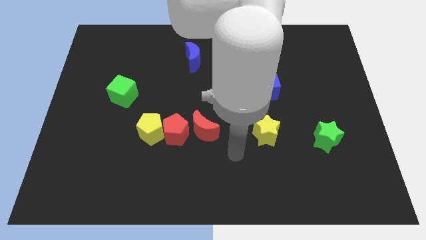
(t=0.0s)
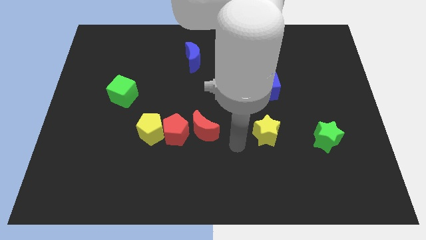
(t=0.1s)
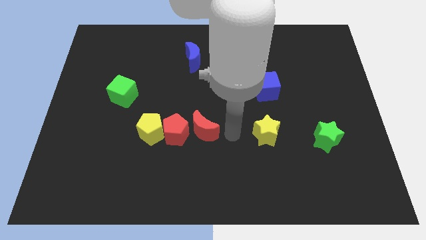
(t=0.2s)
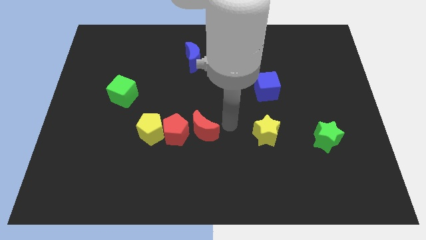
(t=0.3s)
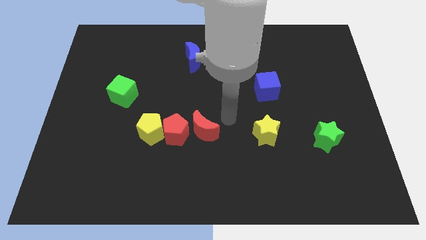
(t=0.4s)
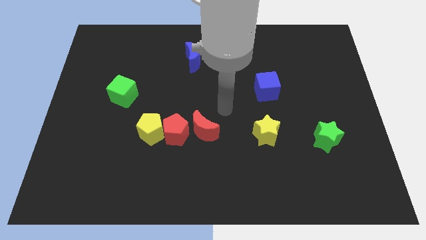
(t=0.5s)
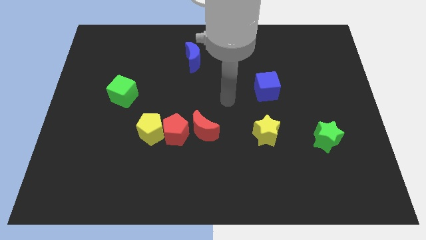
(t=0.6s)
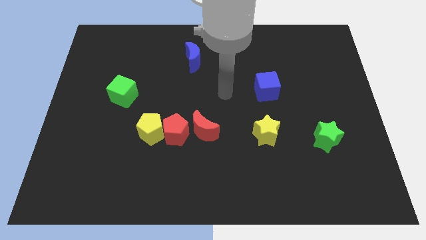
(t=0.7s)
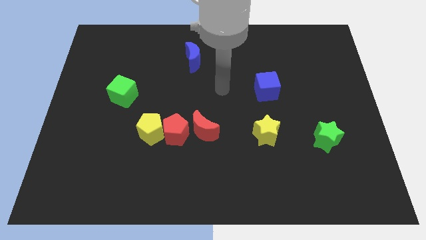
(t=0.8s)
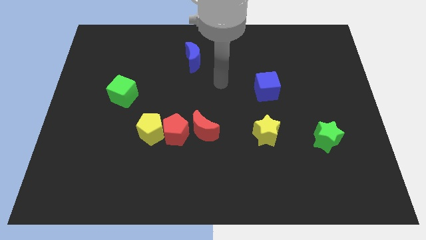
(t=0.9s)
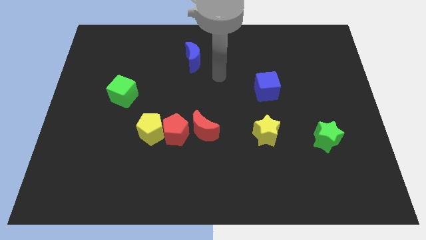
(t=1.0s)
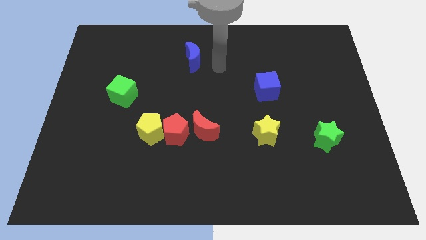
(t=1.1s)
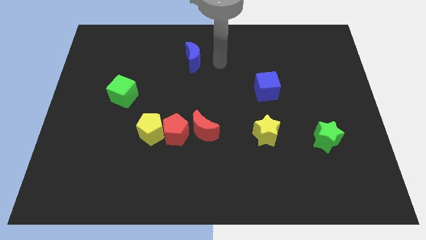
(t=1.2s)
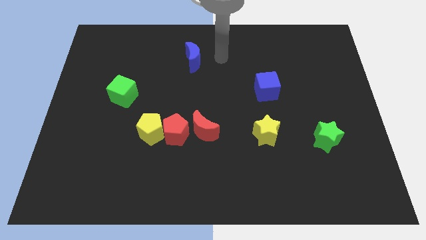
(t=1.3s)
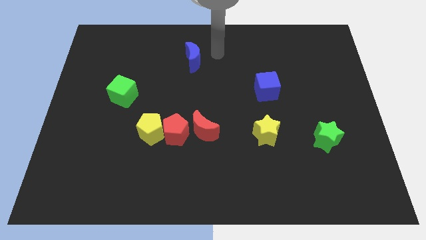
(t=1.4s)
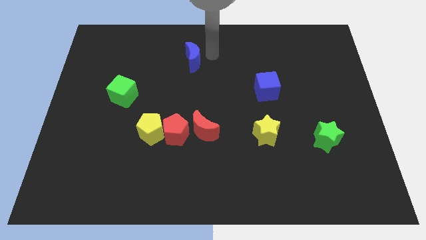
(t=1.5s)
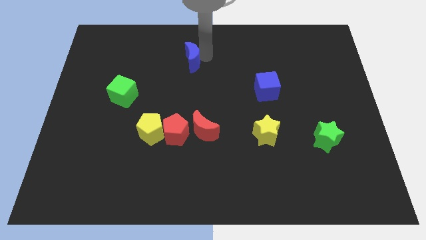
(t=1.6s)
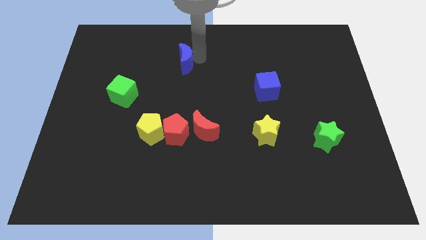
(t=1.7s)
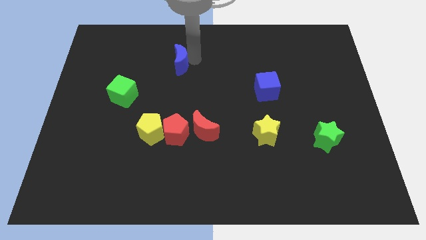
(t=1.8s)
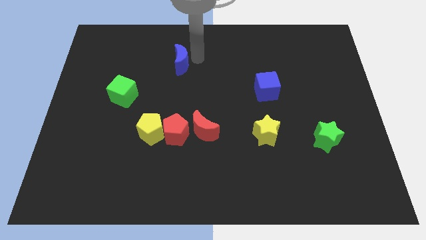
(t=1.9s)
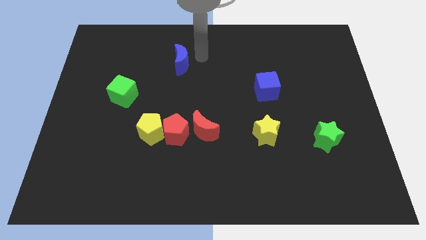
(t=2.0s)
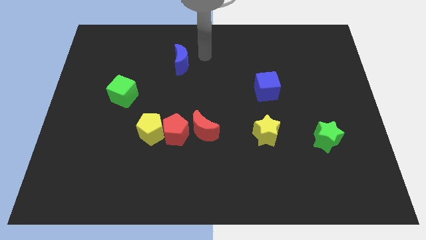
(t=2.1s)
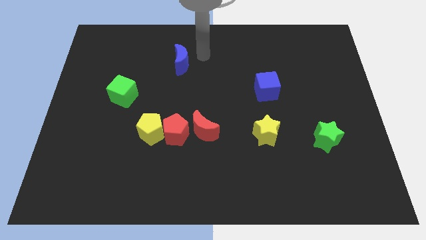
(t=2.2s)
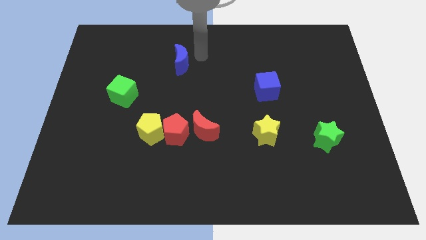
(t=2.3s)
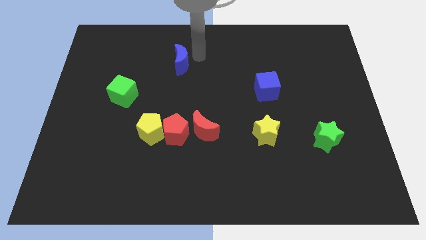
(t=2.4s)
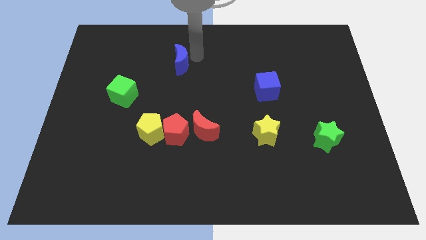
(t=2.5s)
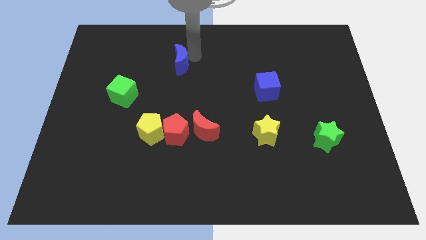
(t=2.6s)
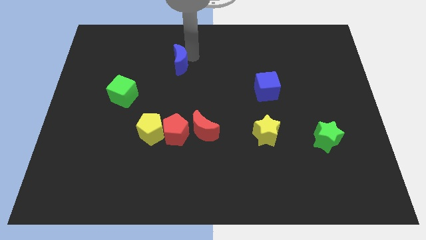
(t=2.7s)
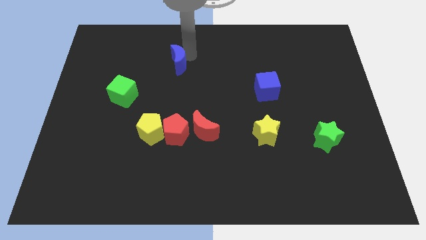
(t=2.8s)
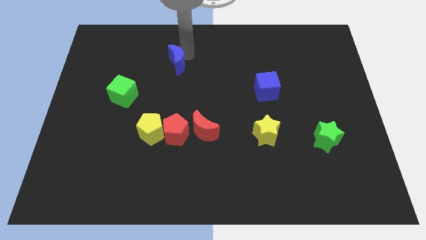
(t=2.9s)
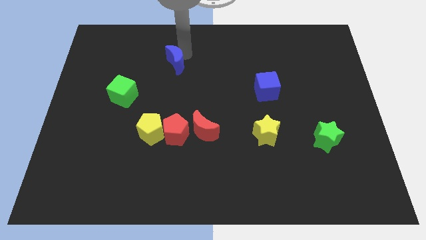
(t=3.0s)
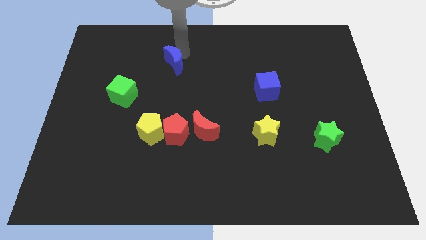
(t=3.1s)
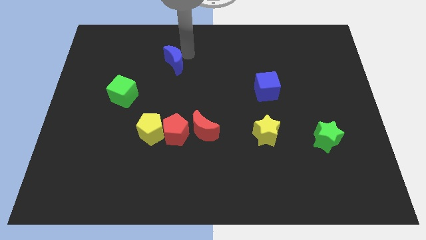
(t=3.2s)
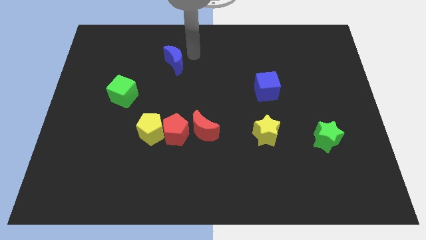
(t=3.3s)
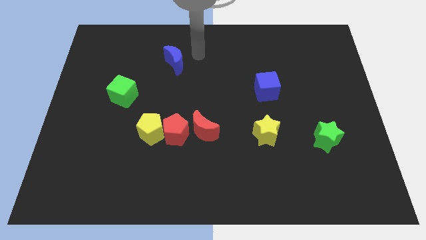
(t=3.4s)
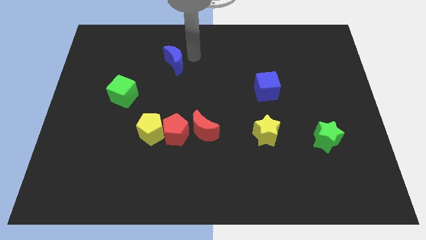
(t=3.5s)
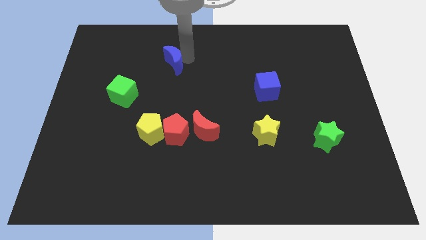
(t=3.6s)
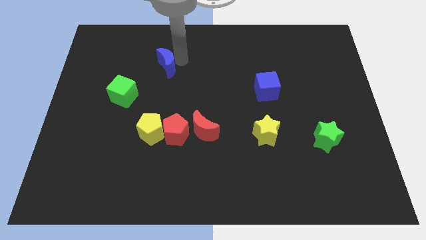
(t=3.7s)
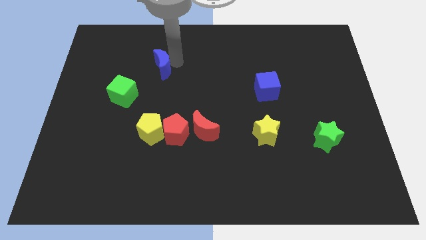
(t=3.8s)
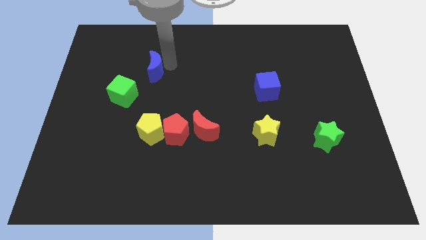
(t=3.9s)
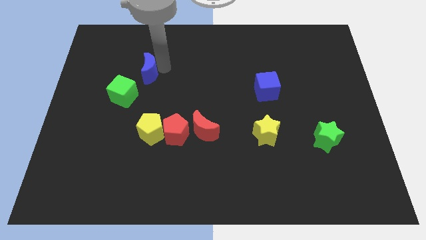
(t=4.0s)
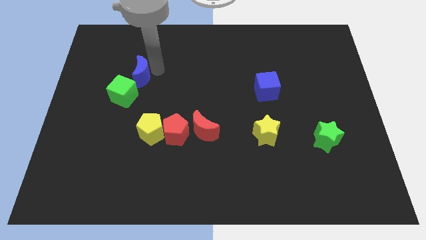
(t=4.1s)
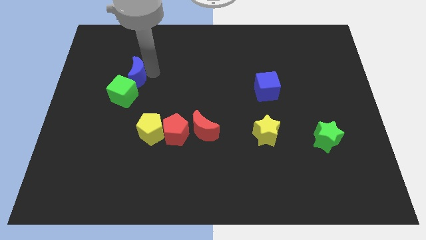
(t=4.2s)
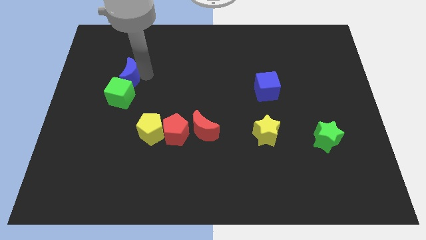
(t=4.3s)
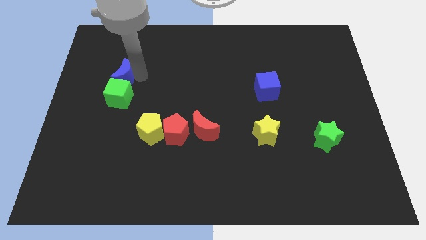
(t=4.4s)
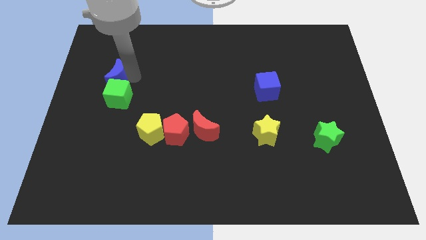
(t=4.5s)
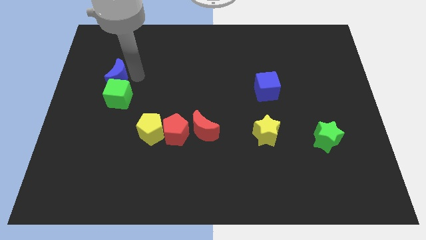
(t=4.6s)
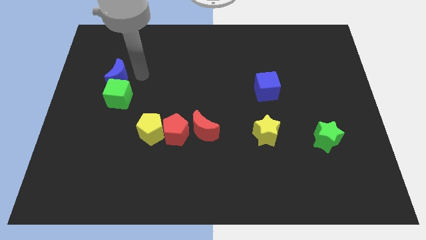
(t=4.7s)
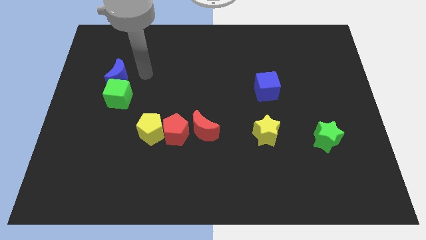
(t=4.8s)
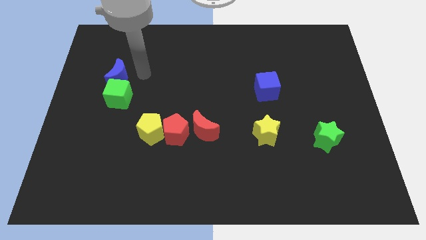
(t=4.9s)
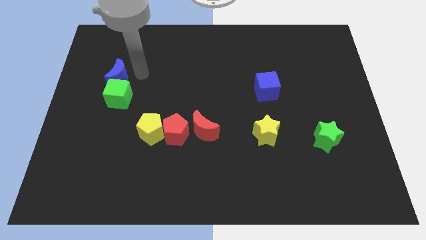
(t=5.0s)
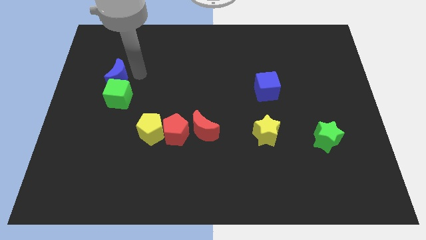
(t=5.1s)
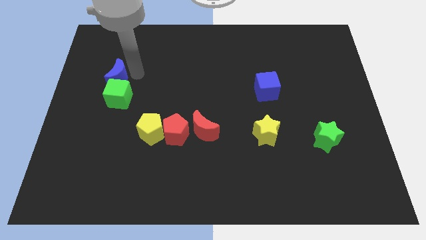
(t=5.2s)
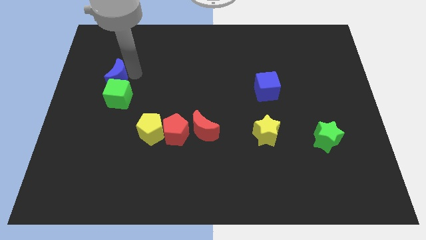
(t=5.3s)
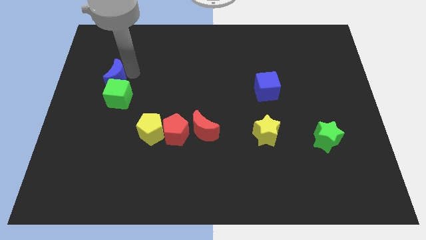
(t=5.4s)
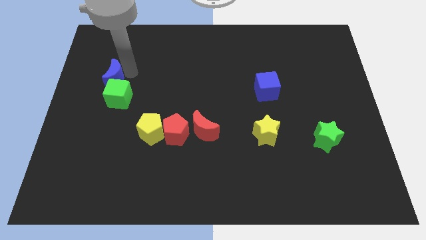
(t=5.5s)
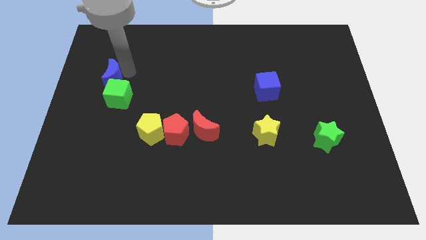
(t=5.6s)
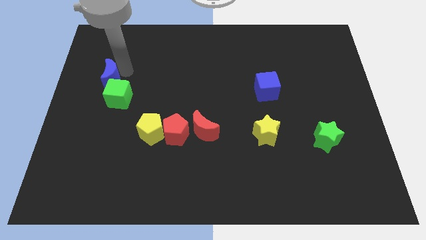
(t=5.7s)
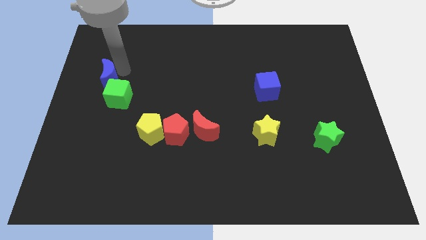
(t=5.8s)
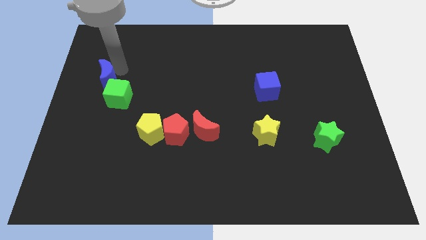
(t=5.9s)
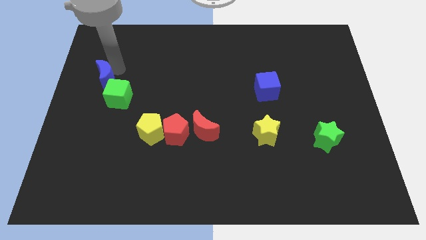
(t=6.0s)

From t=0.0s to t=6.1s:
push the blue moon to the left side of the board
